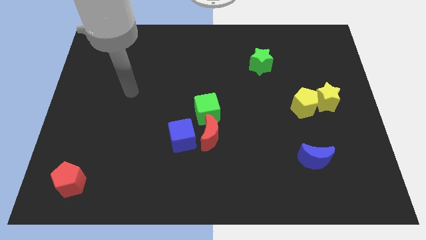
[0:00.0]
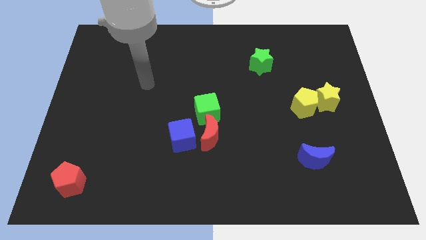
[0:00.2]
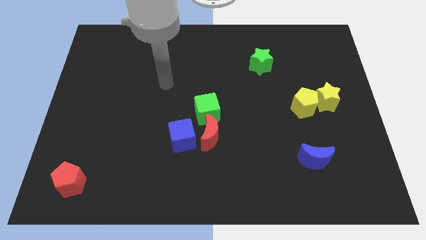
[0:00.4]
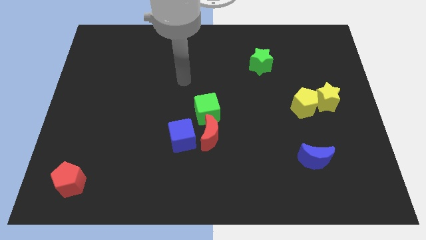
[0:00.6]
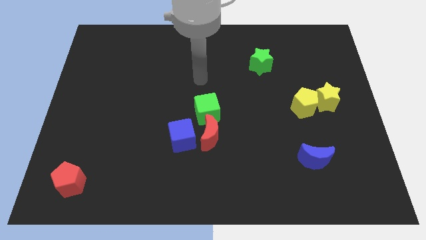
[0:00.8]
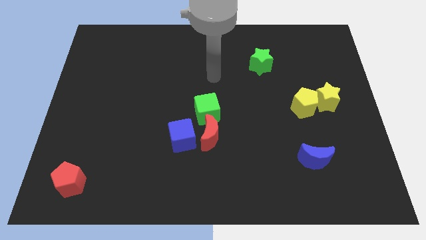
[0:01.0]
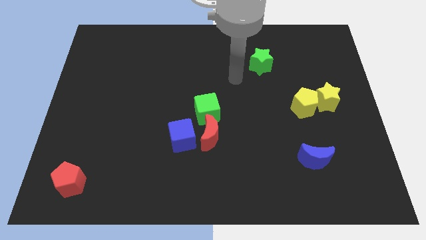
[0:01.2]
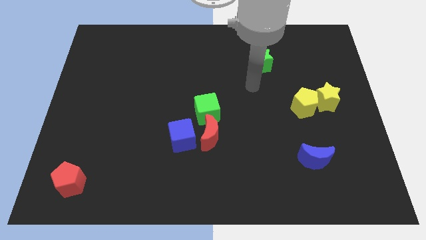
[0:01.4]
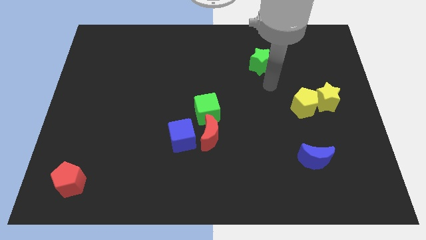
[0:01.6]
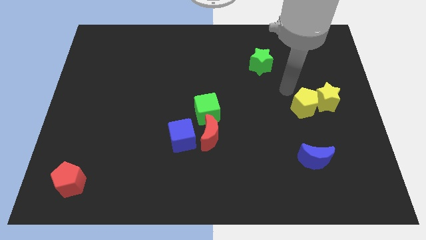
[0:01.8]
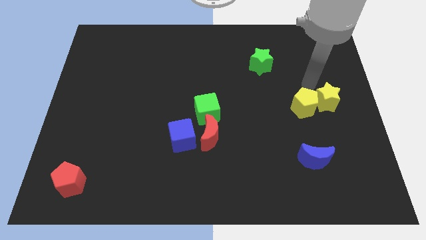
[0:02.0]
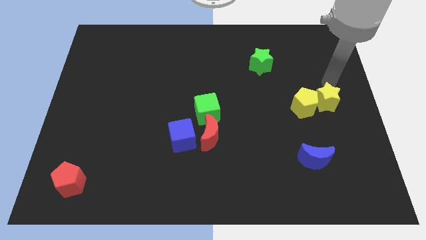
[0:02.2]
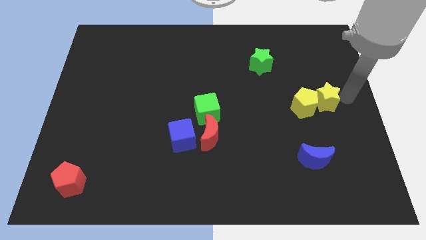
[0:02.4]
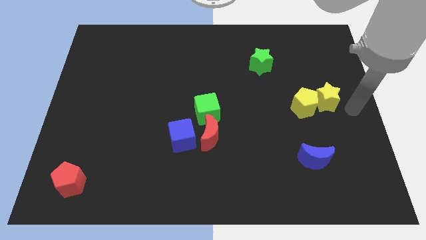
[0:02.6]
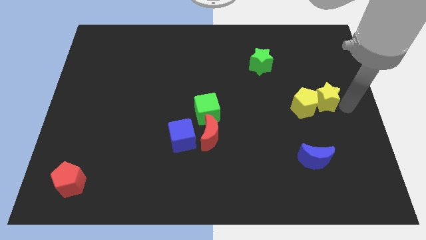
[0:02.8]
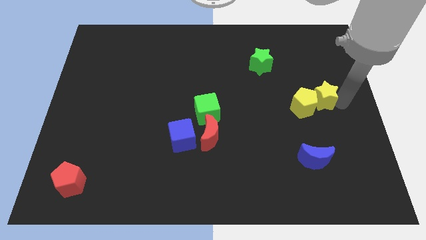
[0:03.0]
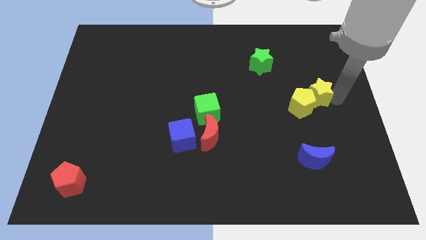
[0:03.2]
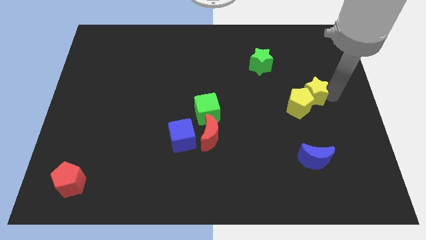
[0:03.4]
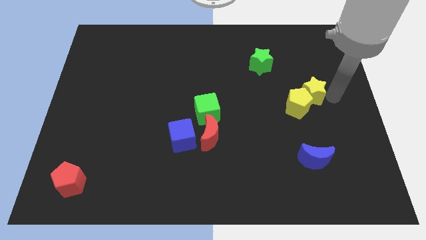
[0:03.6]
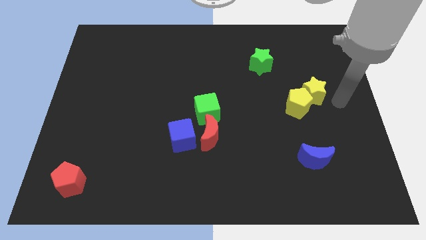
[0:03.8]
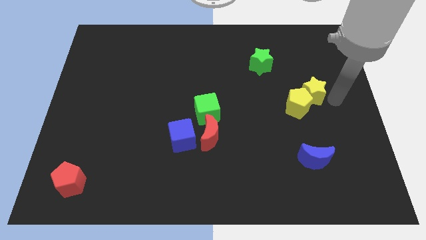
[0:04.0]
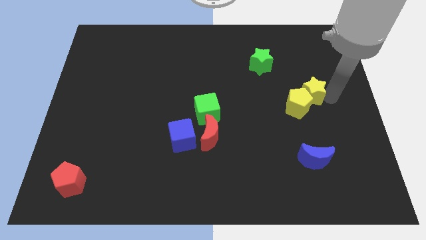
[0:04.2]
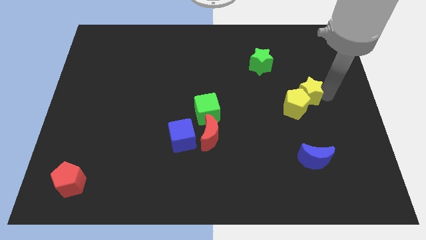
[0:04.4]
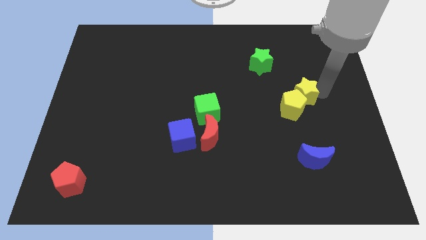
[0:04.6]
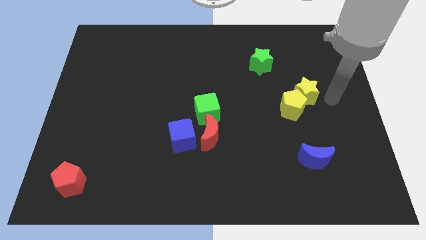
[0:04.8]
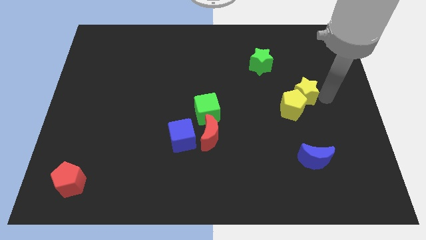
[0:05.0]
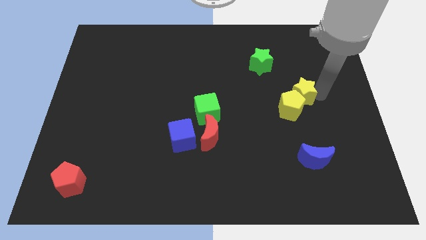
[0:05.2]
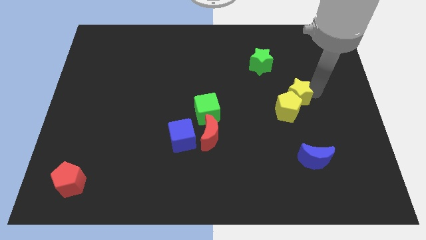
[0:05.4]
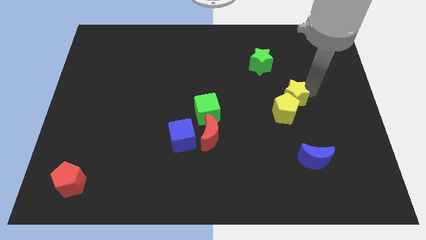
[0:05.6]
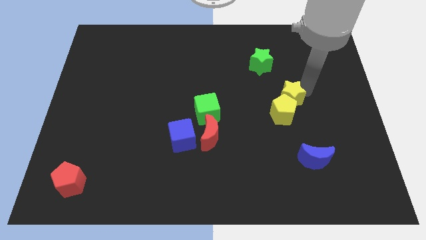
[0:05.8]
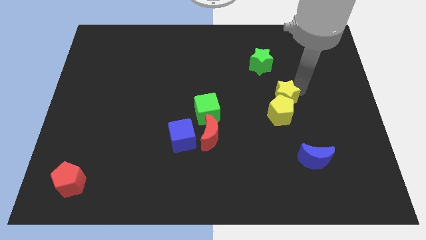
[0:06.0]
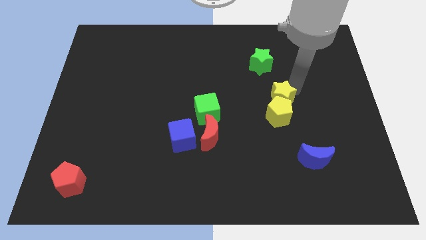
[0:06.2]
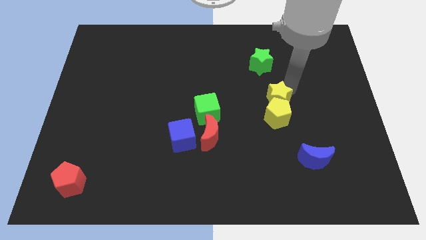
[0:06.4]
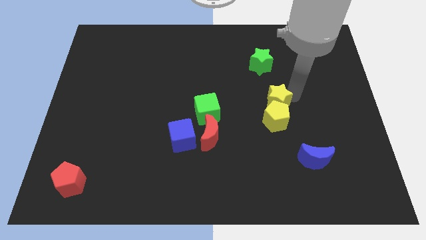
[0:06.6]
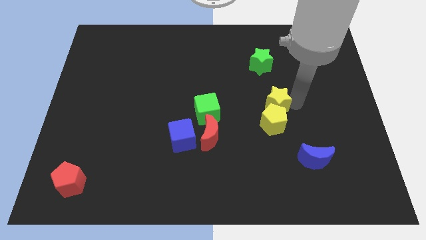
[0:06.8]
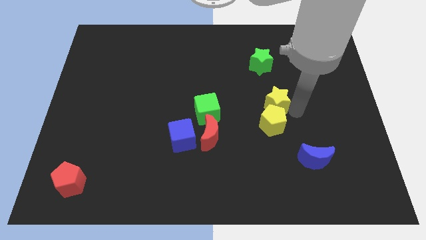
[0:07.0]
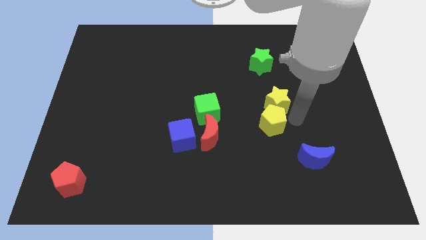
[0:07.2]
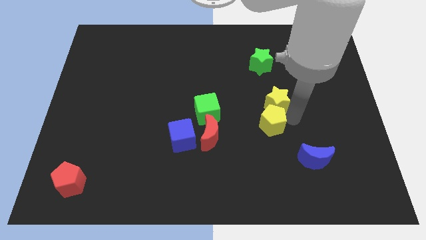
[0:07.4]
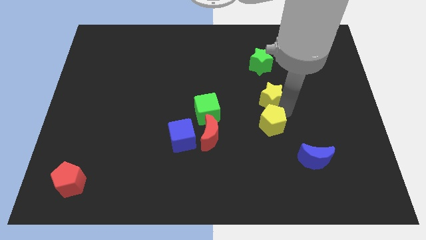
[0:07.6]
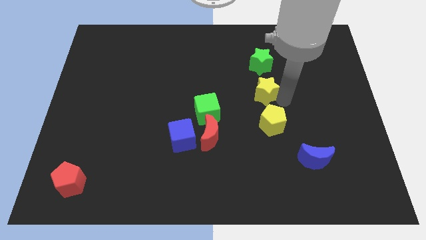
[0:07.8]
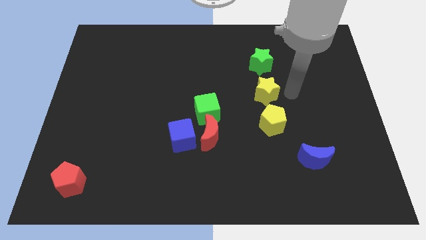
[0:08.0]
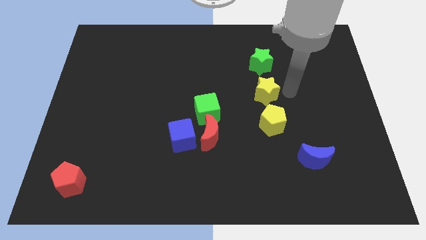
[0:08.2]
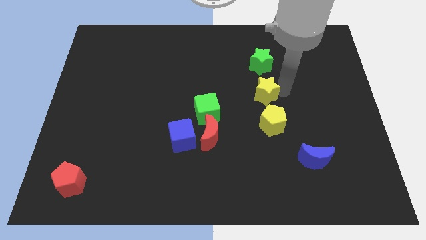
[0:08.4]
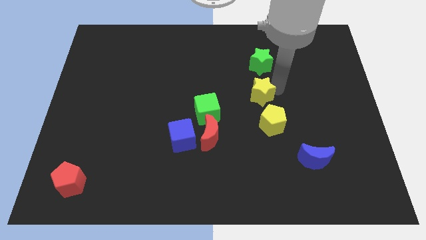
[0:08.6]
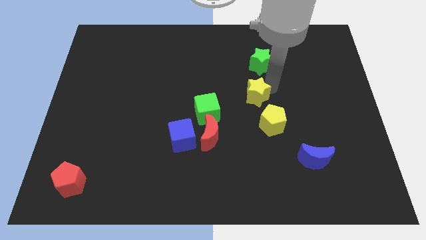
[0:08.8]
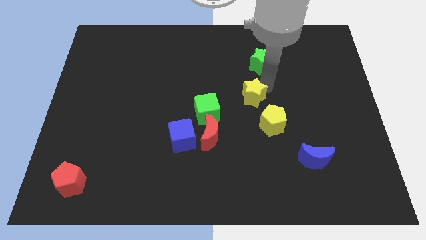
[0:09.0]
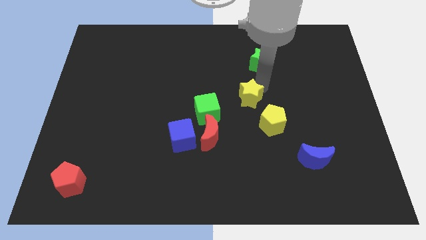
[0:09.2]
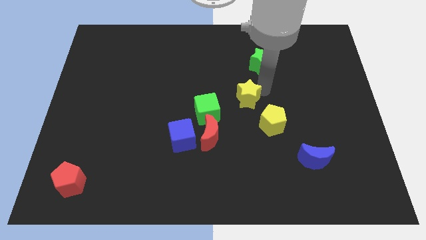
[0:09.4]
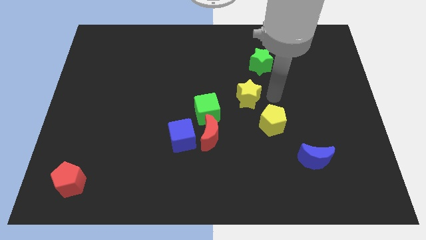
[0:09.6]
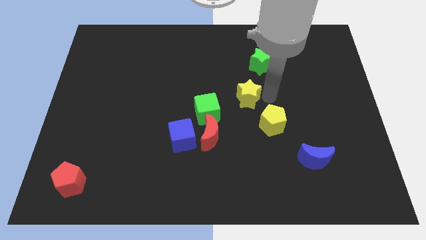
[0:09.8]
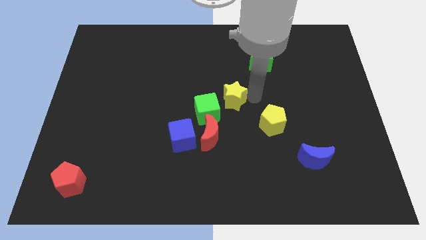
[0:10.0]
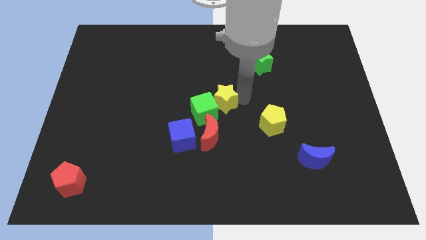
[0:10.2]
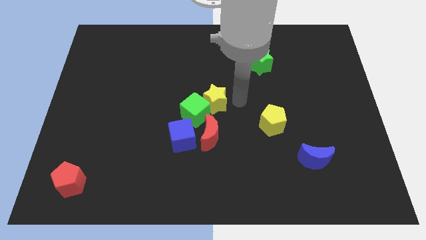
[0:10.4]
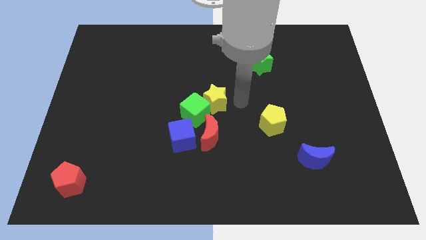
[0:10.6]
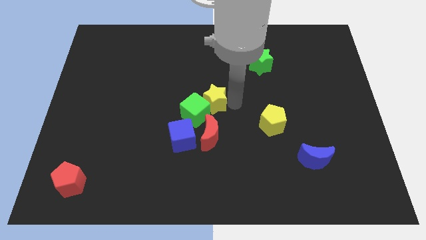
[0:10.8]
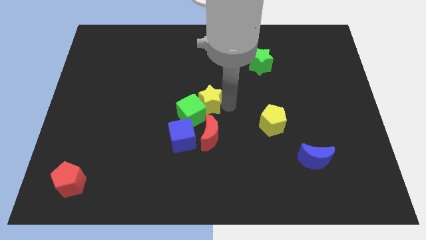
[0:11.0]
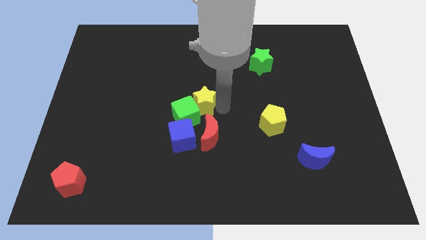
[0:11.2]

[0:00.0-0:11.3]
push the yellow star above the blue cube

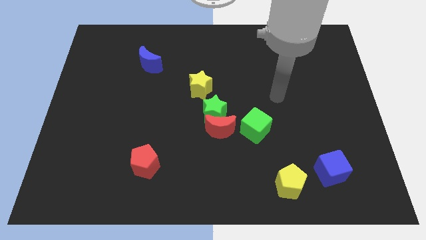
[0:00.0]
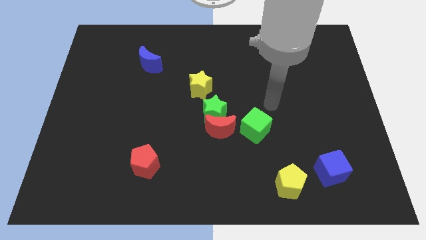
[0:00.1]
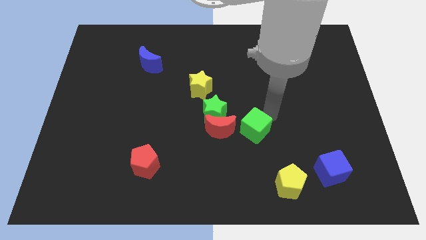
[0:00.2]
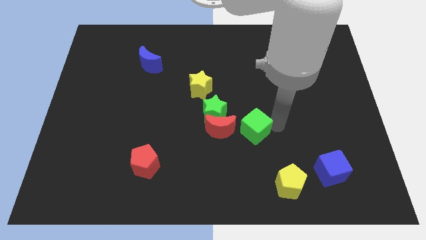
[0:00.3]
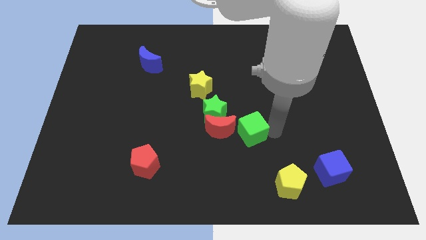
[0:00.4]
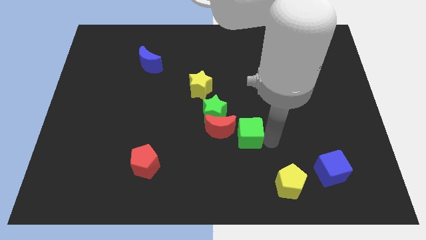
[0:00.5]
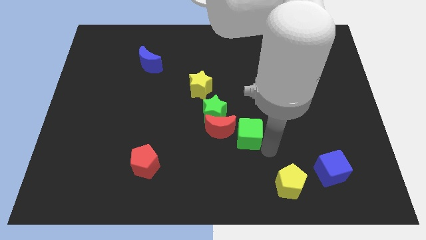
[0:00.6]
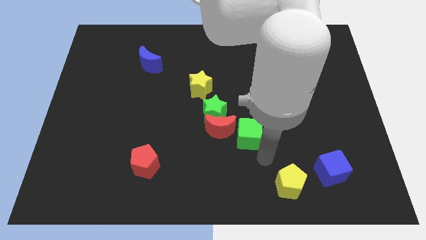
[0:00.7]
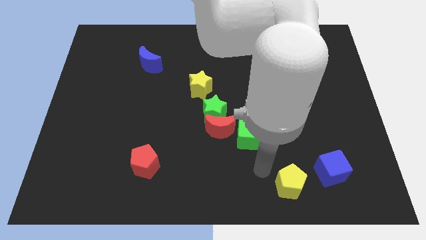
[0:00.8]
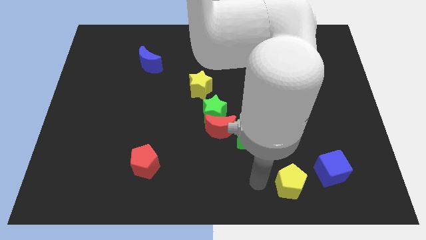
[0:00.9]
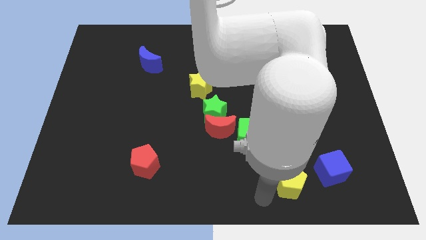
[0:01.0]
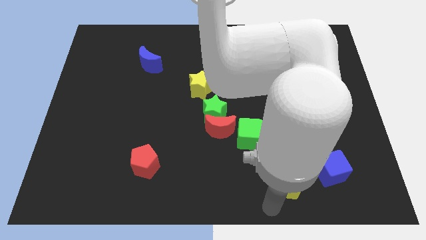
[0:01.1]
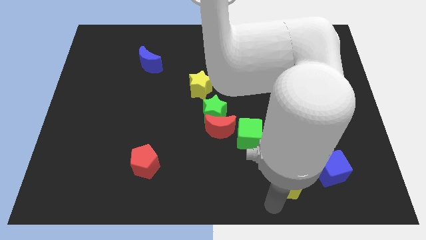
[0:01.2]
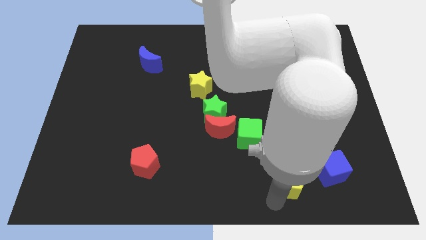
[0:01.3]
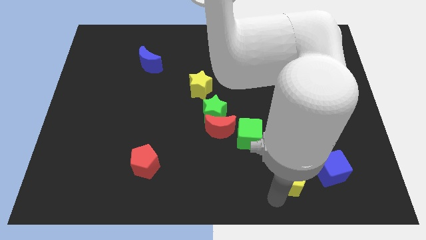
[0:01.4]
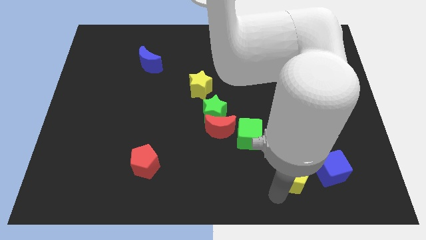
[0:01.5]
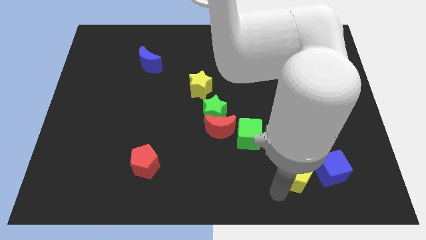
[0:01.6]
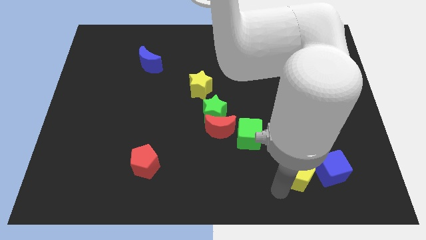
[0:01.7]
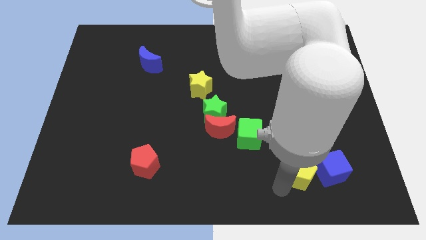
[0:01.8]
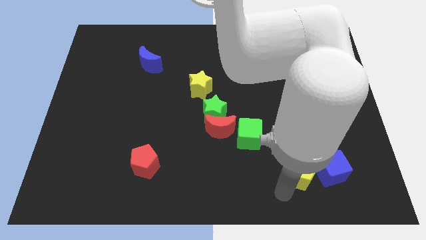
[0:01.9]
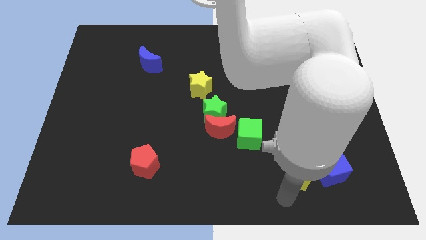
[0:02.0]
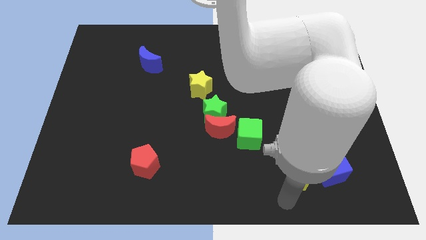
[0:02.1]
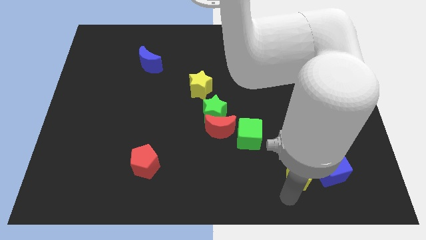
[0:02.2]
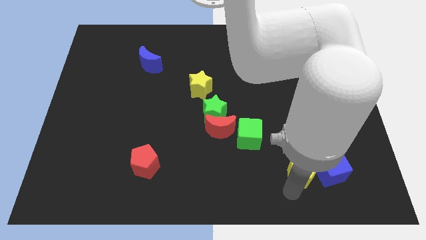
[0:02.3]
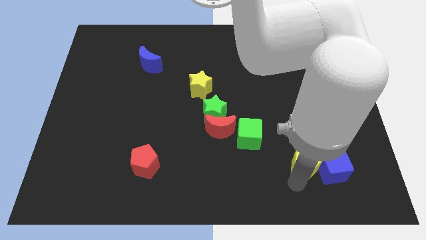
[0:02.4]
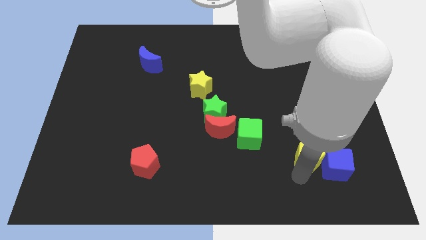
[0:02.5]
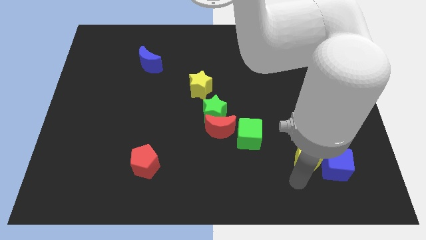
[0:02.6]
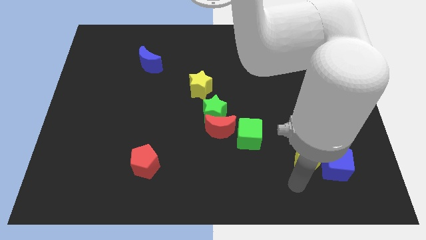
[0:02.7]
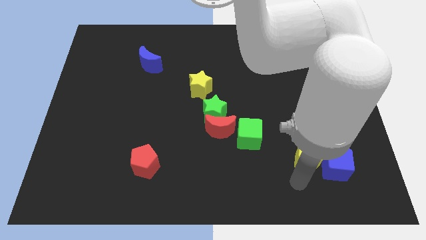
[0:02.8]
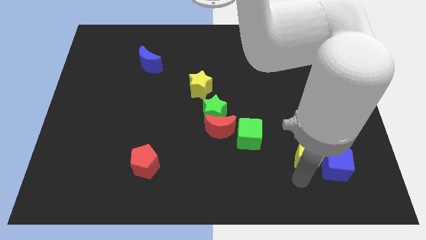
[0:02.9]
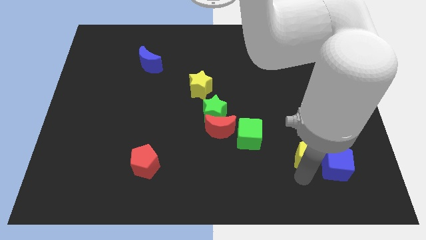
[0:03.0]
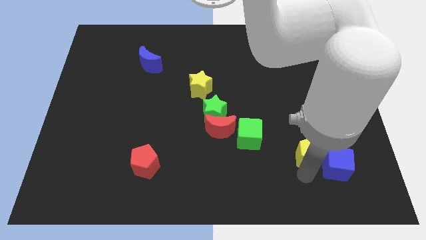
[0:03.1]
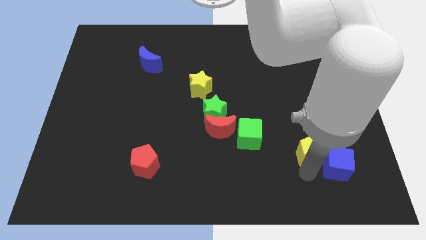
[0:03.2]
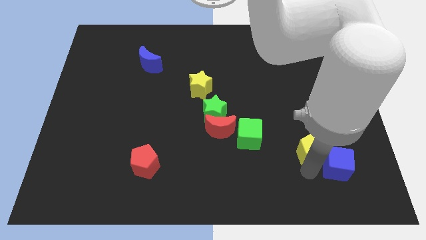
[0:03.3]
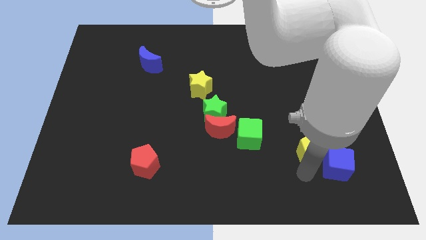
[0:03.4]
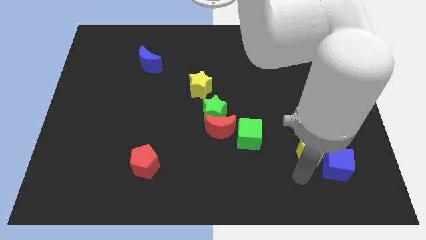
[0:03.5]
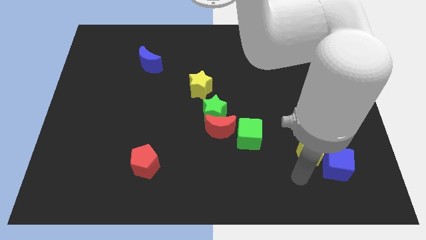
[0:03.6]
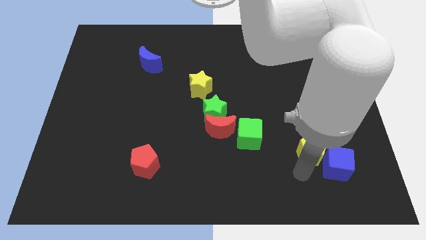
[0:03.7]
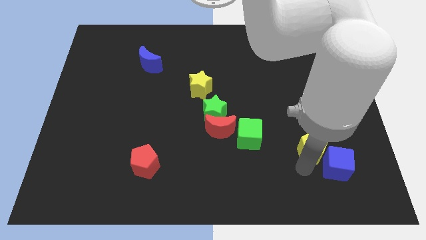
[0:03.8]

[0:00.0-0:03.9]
push the yellow pentagon to the top of the blue cube
